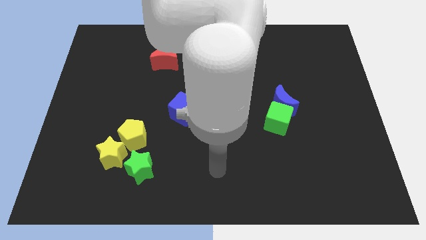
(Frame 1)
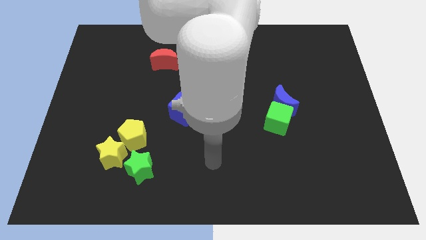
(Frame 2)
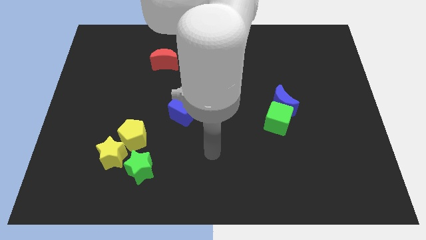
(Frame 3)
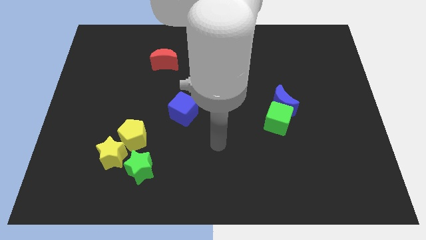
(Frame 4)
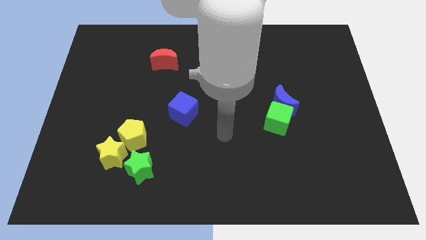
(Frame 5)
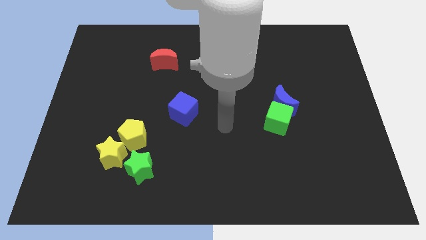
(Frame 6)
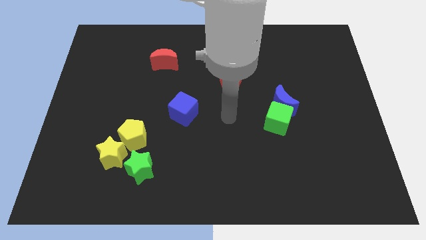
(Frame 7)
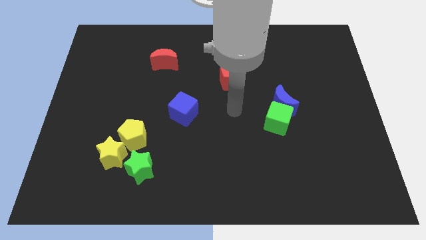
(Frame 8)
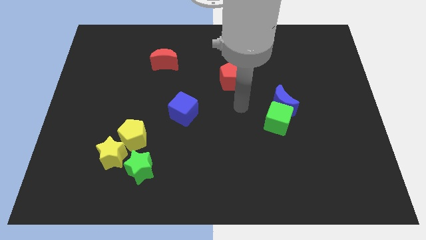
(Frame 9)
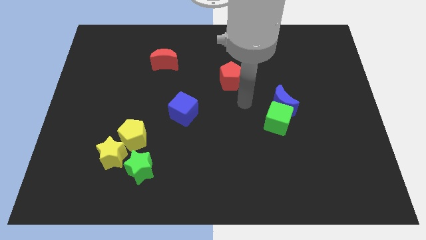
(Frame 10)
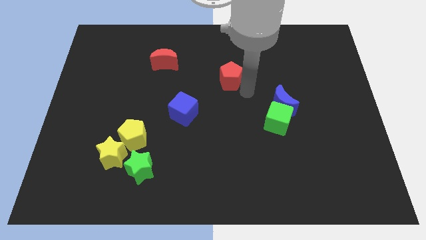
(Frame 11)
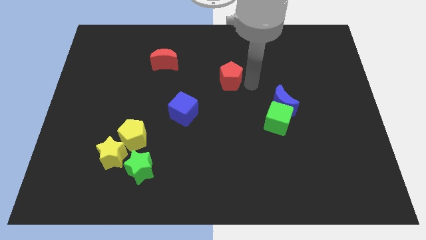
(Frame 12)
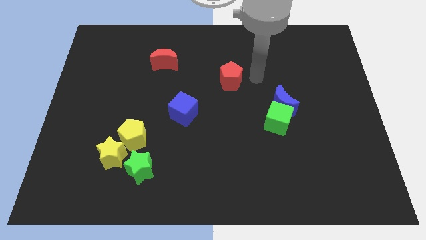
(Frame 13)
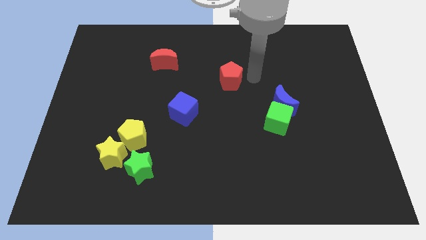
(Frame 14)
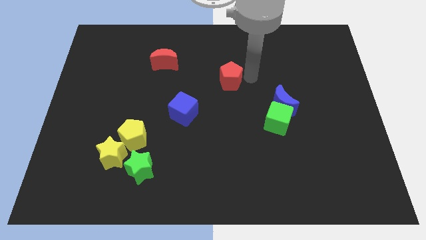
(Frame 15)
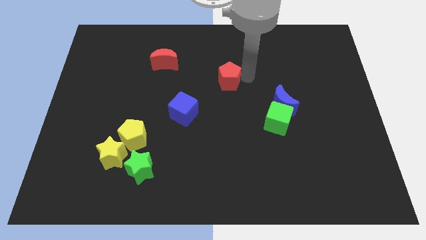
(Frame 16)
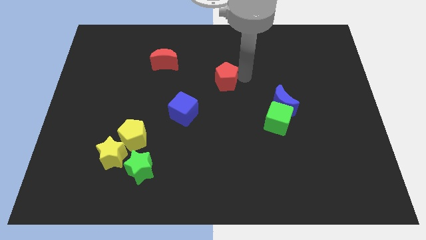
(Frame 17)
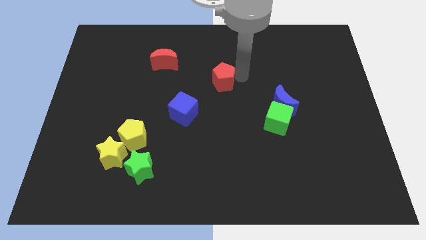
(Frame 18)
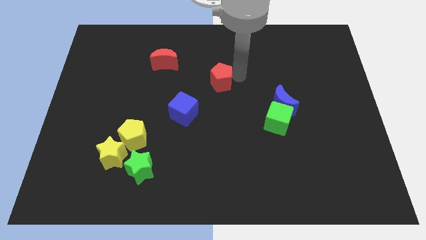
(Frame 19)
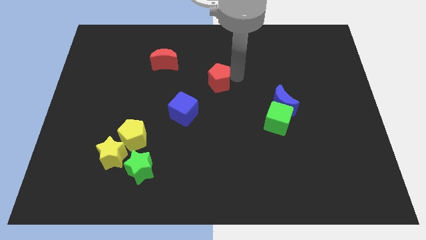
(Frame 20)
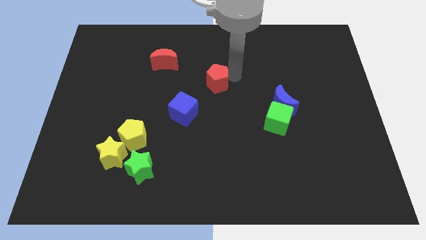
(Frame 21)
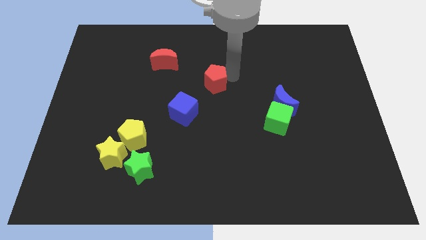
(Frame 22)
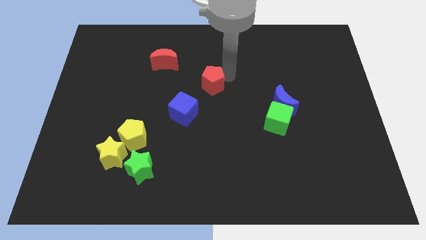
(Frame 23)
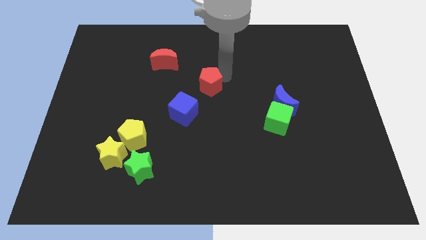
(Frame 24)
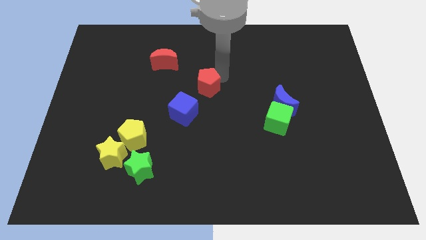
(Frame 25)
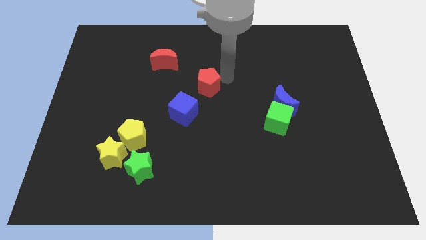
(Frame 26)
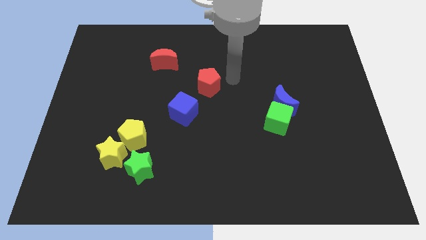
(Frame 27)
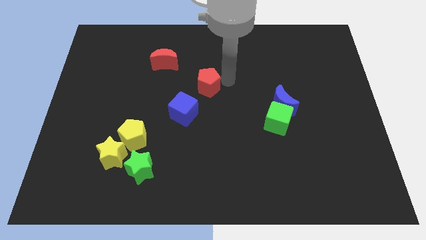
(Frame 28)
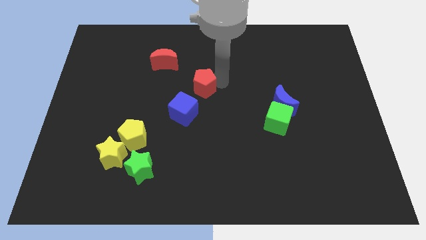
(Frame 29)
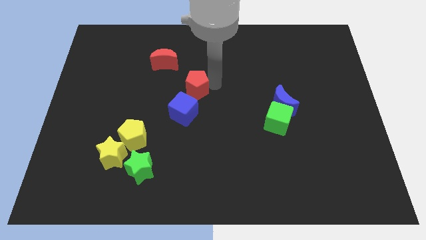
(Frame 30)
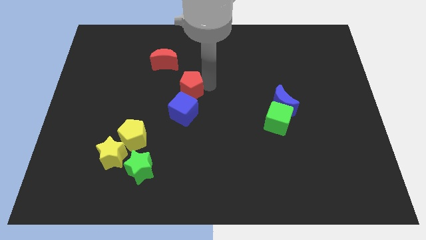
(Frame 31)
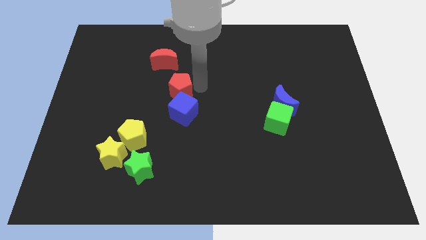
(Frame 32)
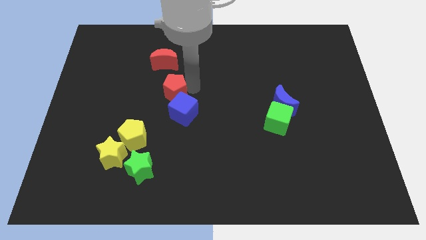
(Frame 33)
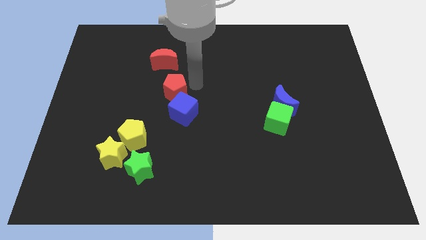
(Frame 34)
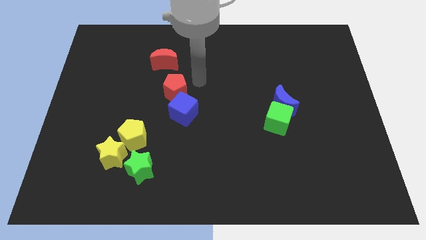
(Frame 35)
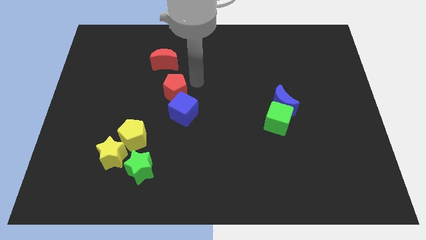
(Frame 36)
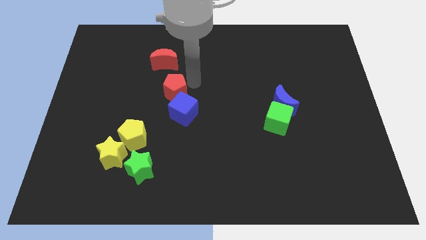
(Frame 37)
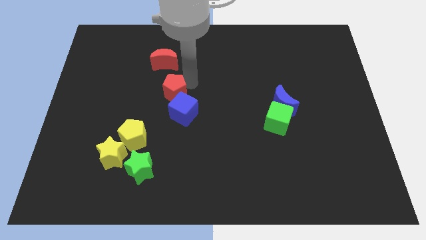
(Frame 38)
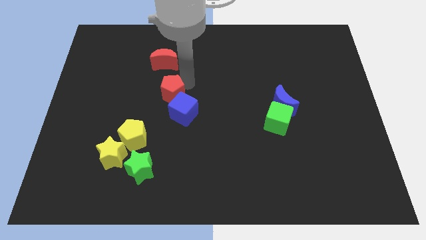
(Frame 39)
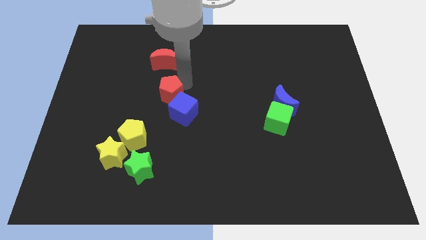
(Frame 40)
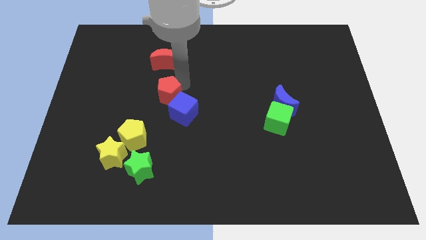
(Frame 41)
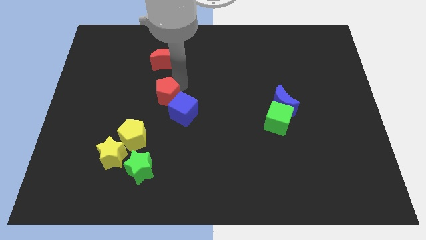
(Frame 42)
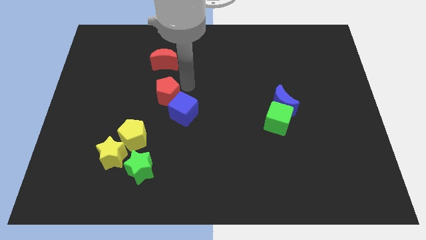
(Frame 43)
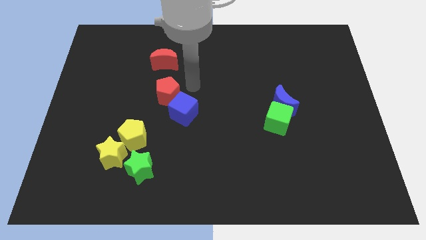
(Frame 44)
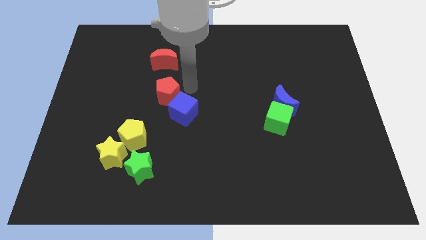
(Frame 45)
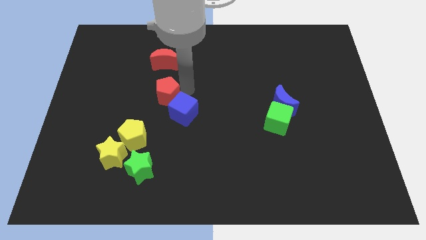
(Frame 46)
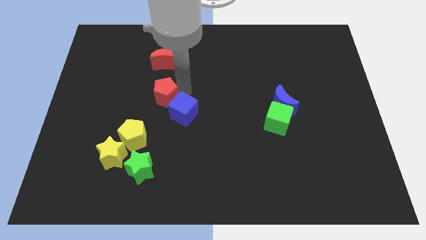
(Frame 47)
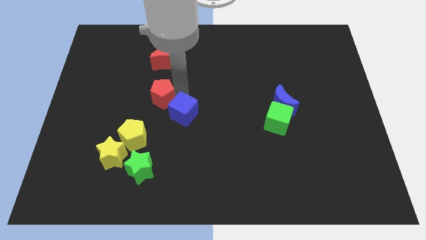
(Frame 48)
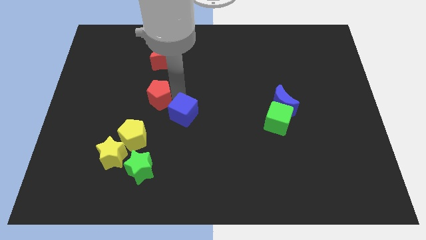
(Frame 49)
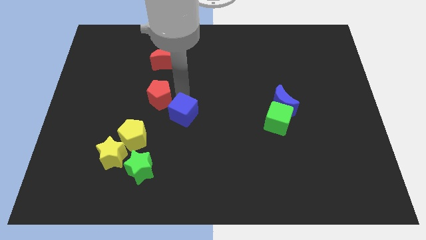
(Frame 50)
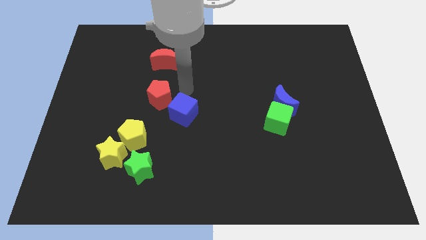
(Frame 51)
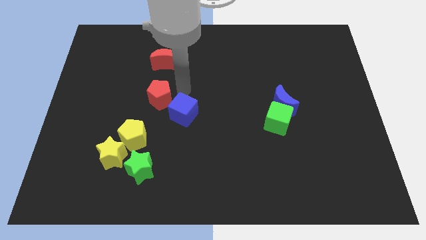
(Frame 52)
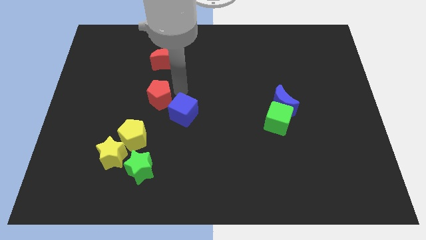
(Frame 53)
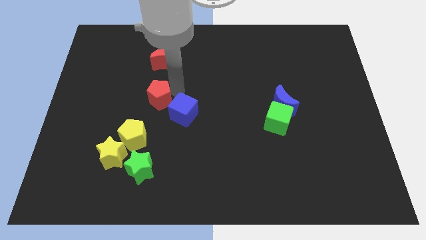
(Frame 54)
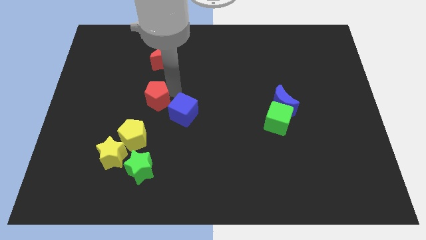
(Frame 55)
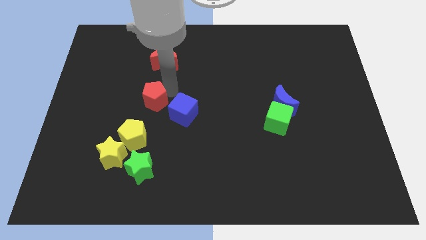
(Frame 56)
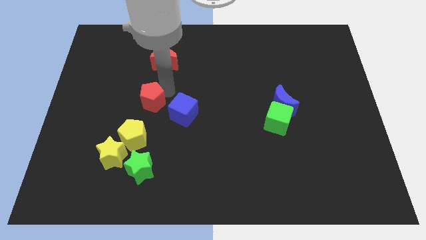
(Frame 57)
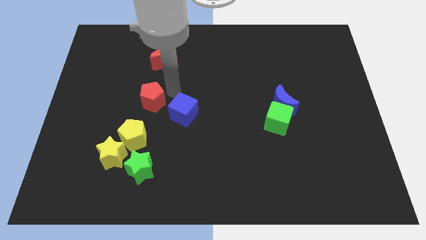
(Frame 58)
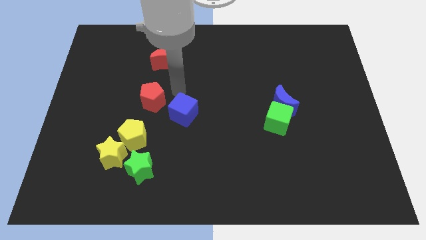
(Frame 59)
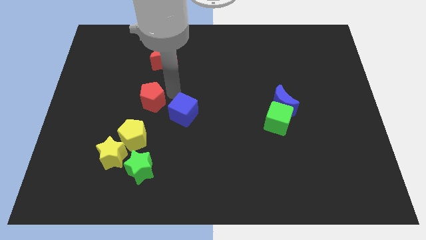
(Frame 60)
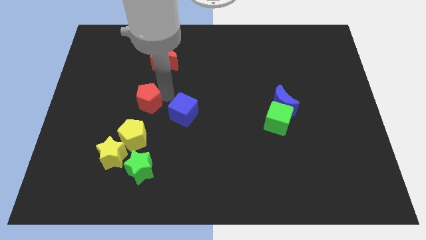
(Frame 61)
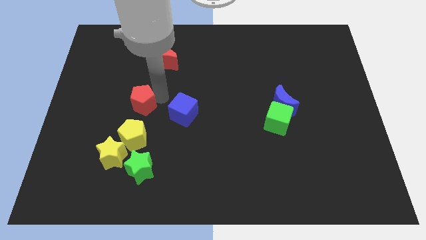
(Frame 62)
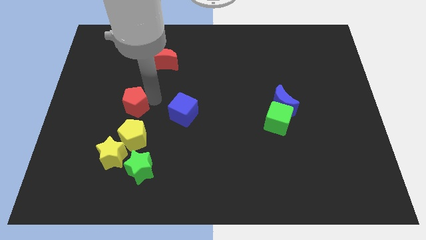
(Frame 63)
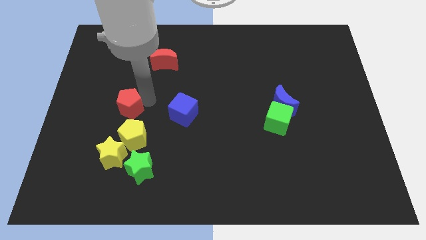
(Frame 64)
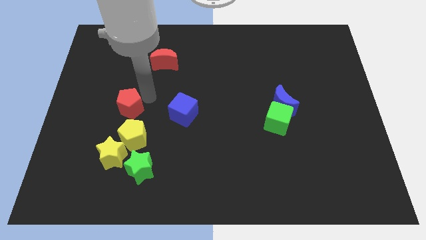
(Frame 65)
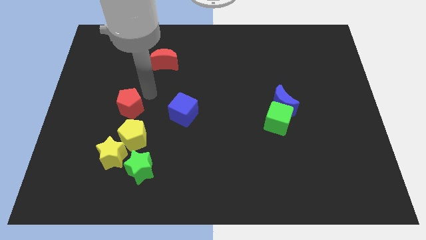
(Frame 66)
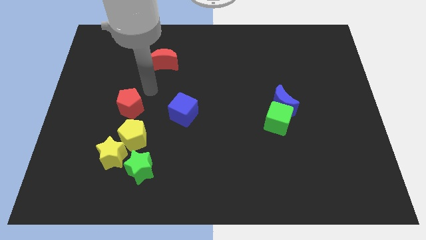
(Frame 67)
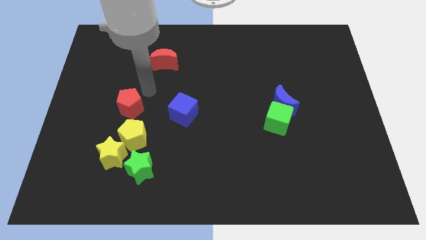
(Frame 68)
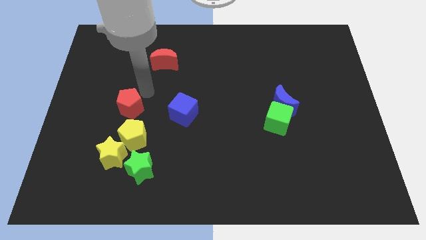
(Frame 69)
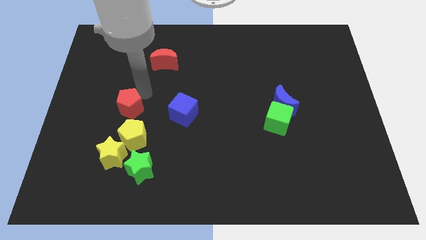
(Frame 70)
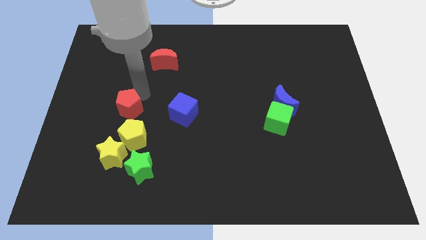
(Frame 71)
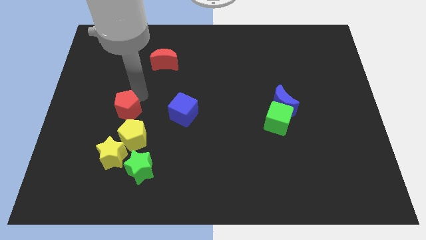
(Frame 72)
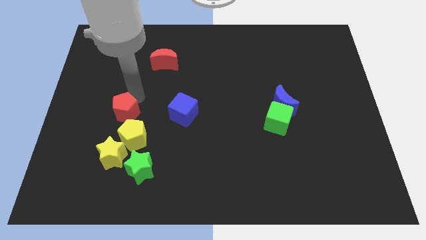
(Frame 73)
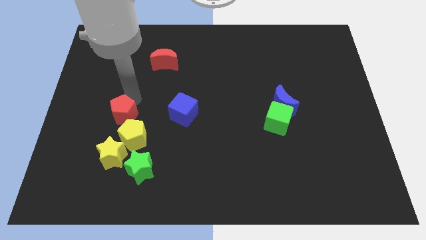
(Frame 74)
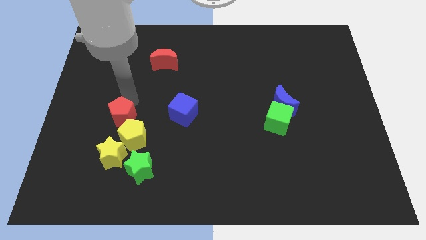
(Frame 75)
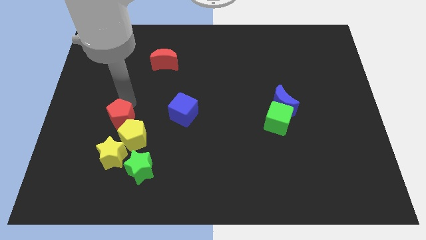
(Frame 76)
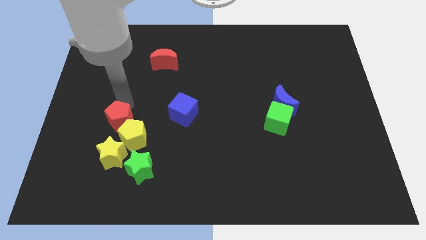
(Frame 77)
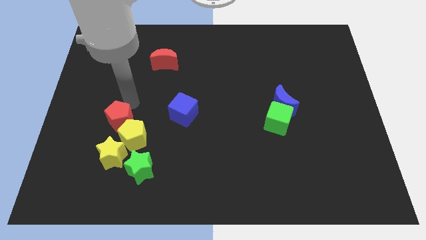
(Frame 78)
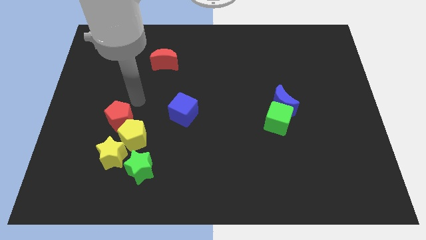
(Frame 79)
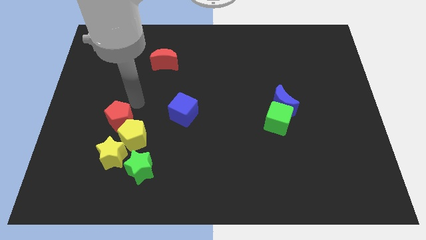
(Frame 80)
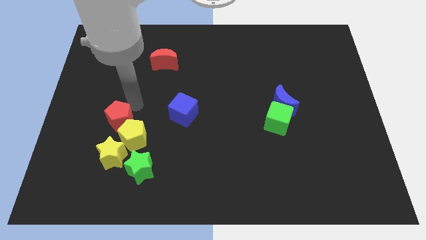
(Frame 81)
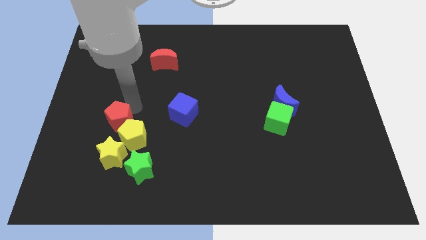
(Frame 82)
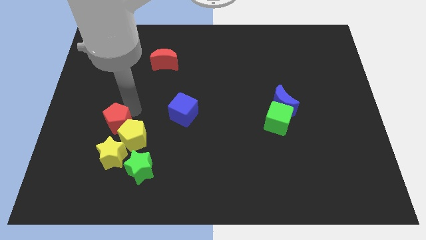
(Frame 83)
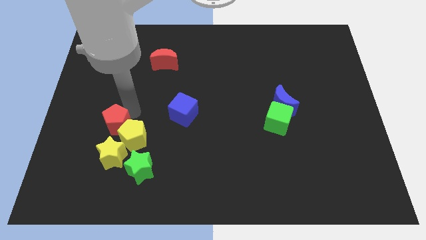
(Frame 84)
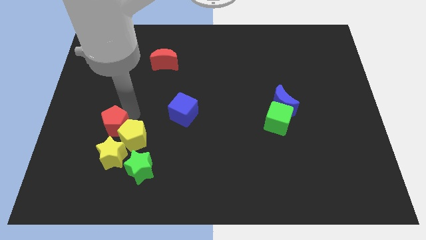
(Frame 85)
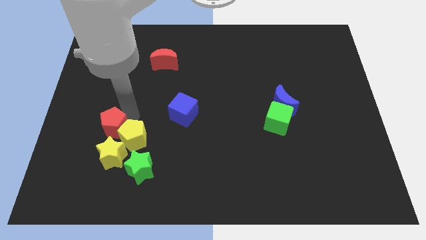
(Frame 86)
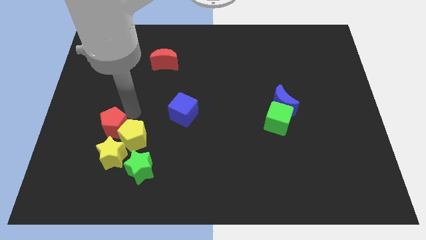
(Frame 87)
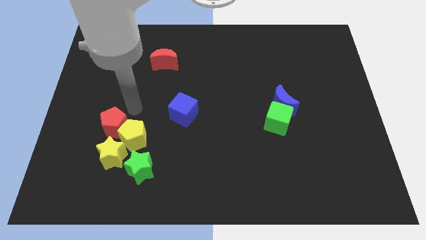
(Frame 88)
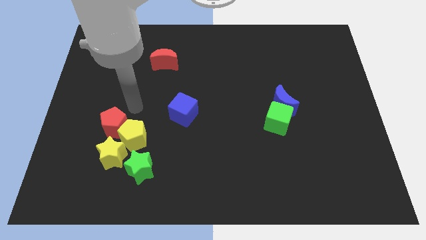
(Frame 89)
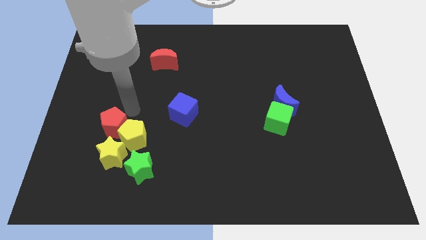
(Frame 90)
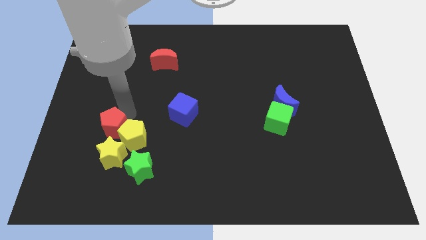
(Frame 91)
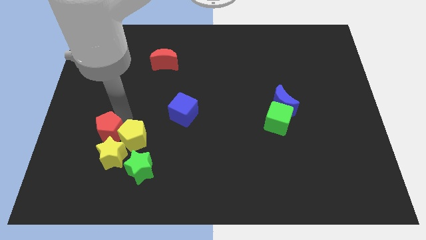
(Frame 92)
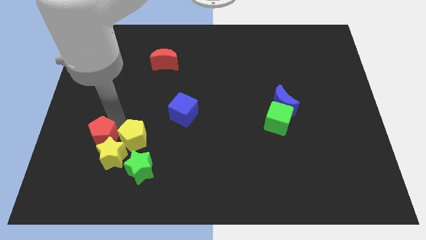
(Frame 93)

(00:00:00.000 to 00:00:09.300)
push the red pentagon to the yellow star
